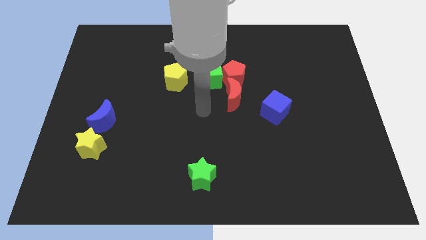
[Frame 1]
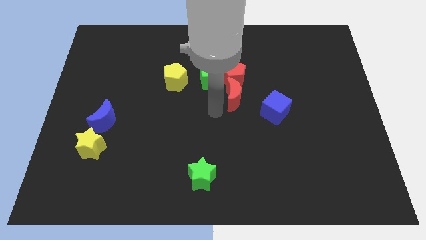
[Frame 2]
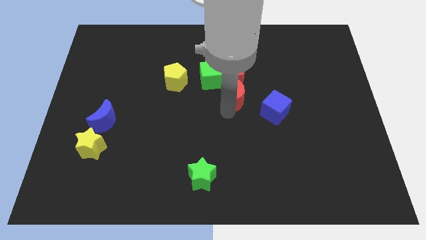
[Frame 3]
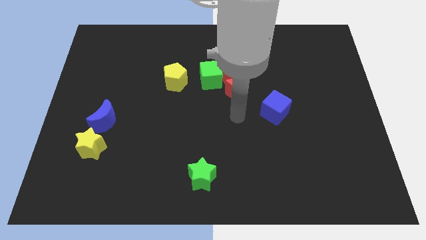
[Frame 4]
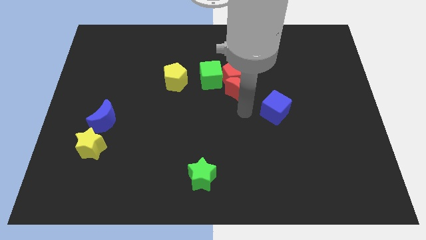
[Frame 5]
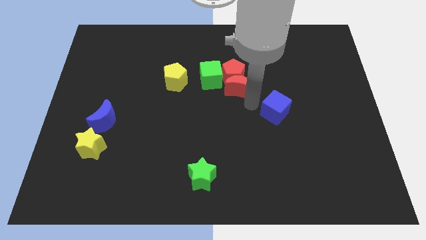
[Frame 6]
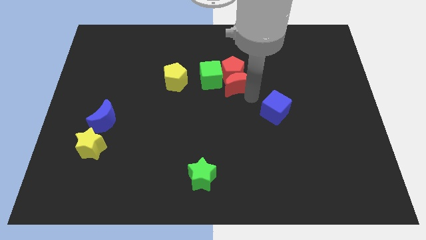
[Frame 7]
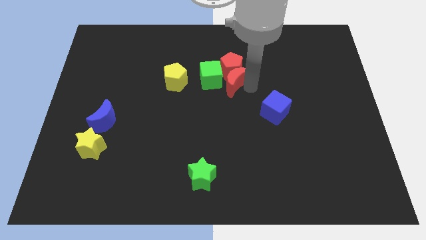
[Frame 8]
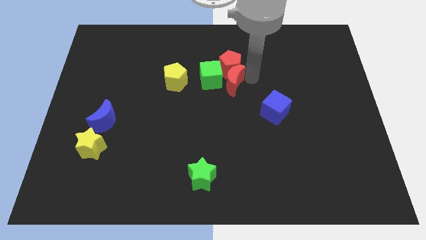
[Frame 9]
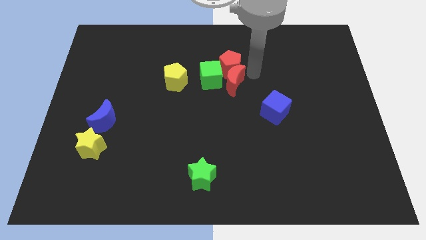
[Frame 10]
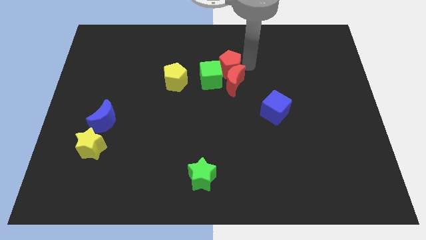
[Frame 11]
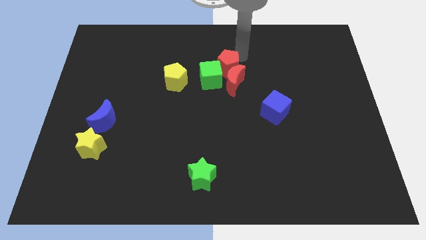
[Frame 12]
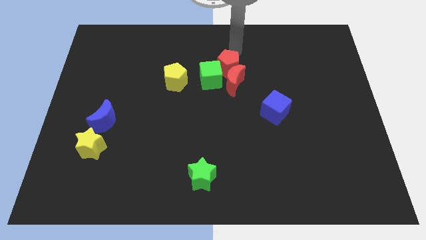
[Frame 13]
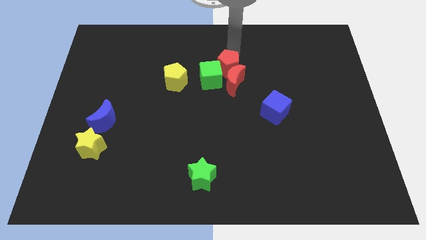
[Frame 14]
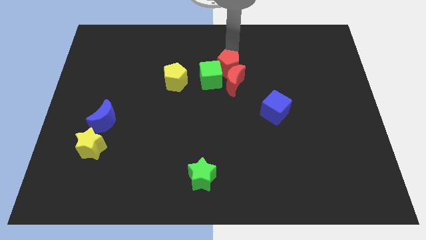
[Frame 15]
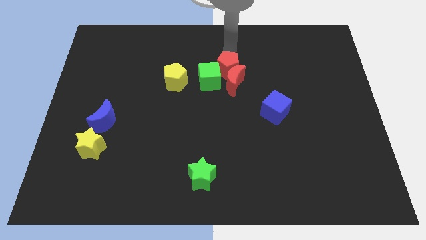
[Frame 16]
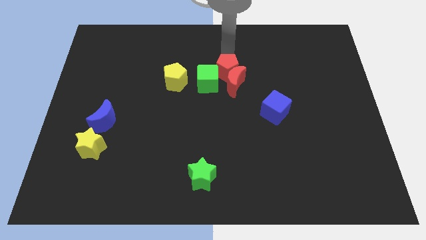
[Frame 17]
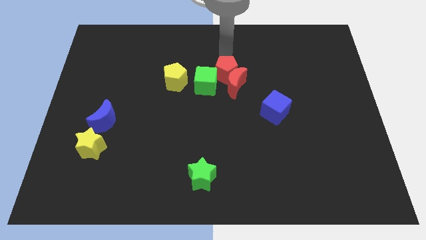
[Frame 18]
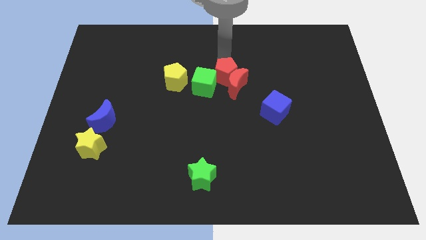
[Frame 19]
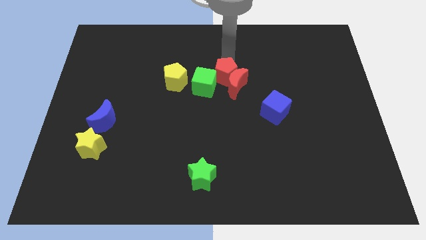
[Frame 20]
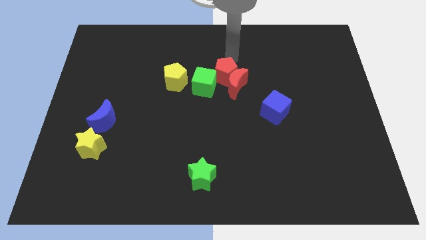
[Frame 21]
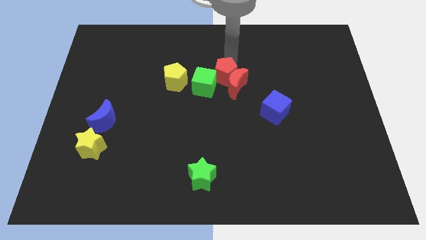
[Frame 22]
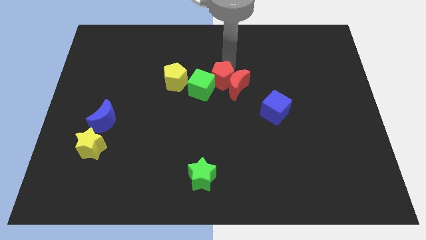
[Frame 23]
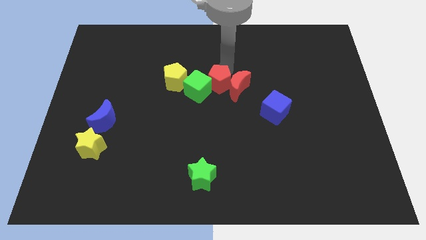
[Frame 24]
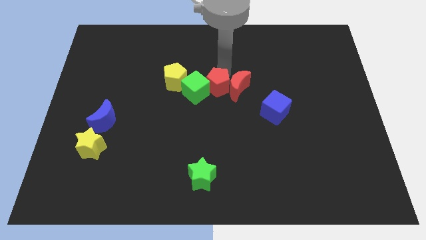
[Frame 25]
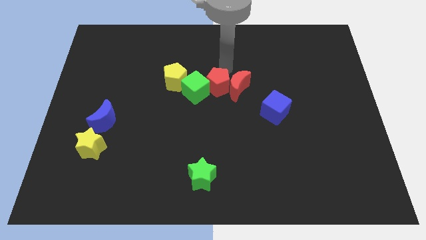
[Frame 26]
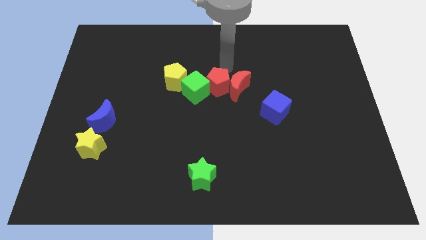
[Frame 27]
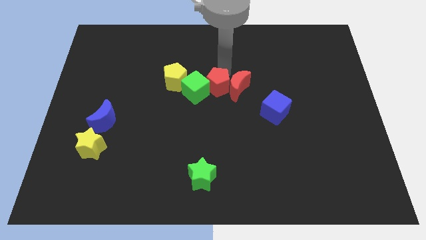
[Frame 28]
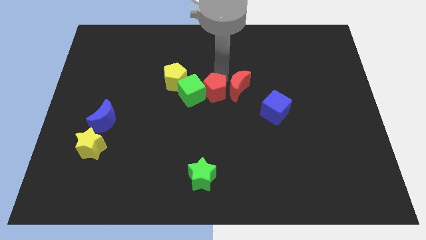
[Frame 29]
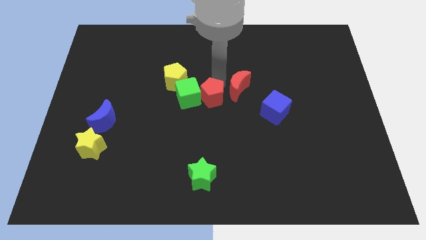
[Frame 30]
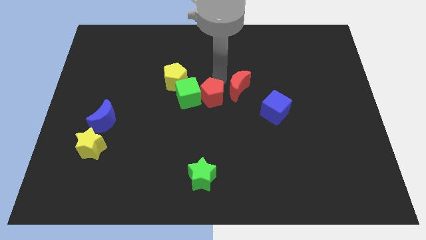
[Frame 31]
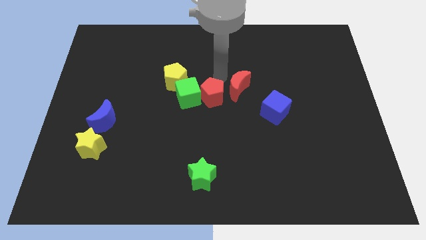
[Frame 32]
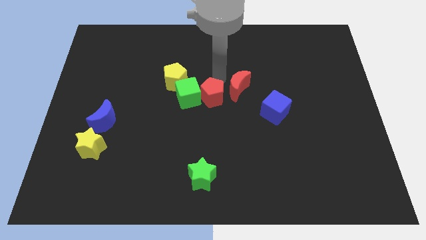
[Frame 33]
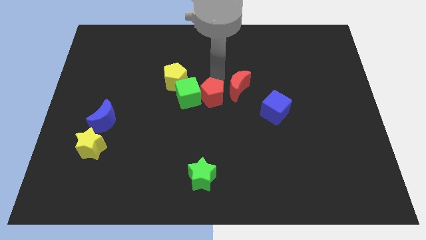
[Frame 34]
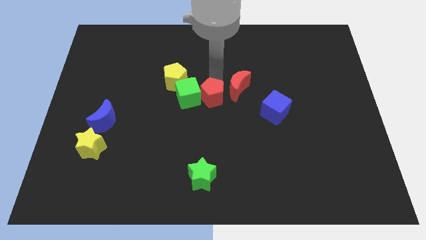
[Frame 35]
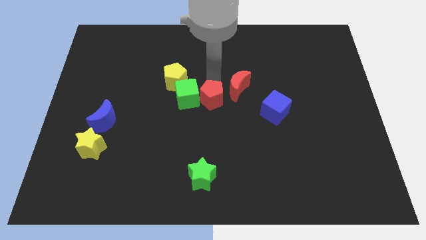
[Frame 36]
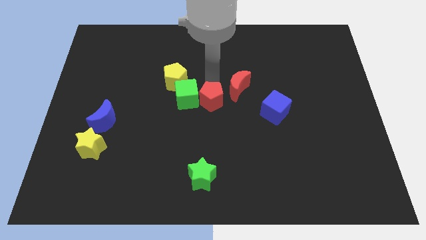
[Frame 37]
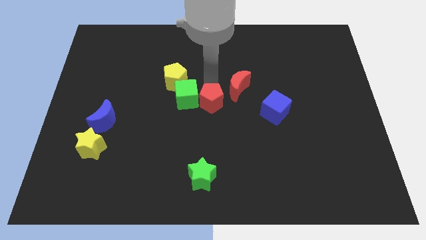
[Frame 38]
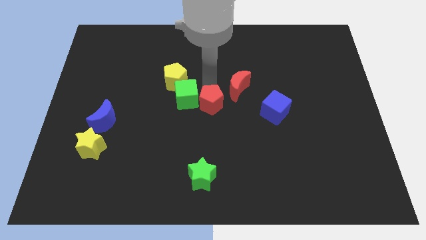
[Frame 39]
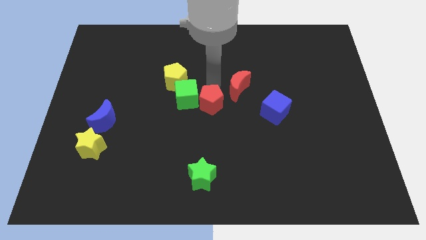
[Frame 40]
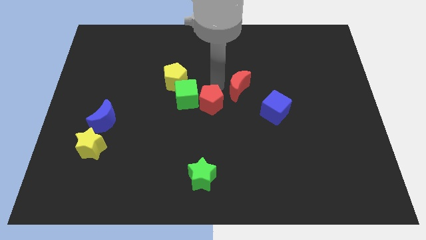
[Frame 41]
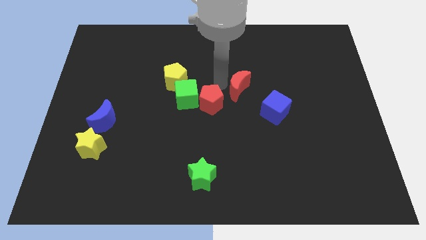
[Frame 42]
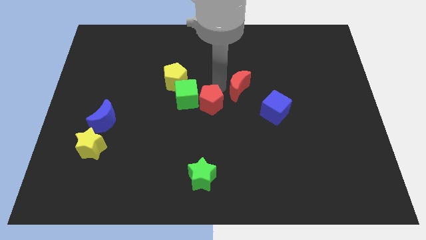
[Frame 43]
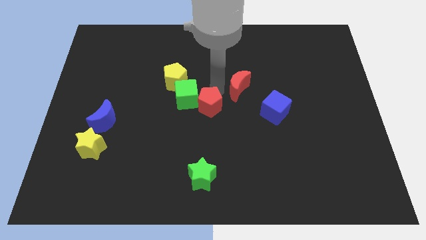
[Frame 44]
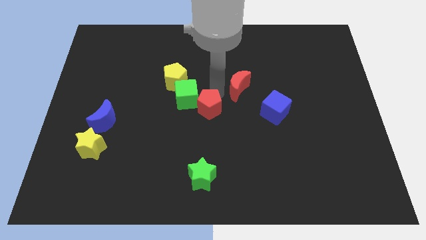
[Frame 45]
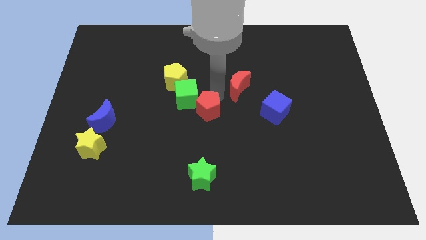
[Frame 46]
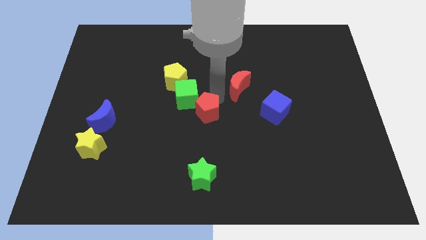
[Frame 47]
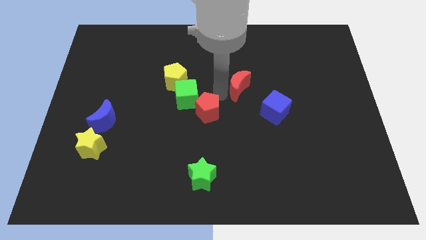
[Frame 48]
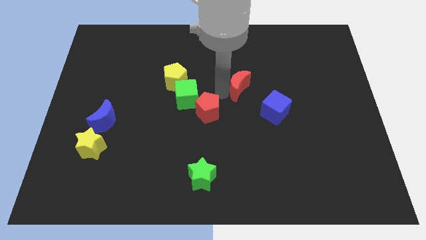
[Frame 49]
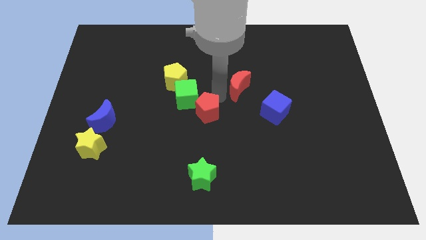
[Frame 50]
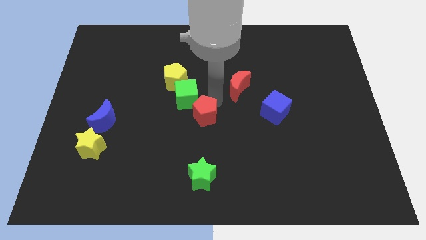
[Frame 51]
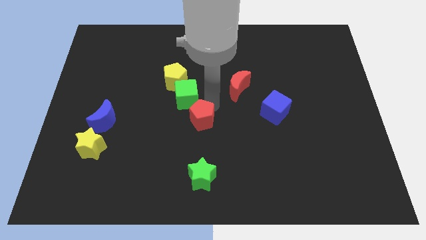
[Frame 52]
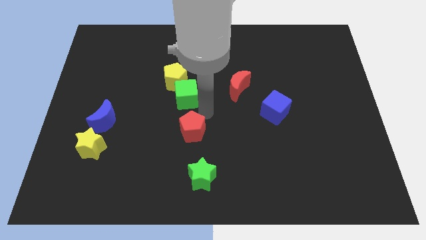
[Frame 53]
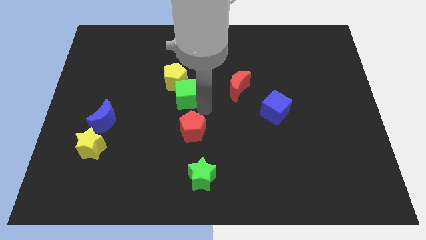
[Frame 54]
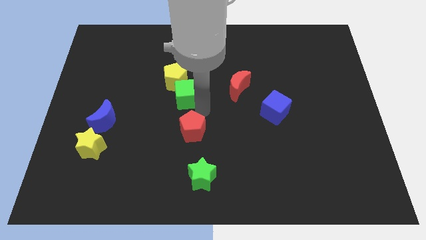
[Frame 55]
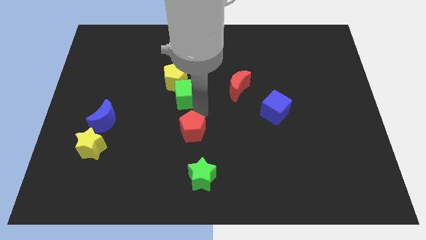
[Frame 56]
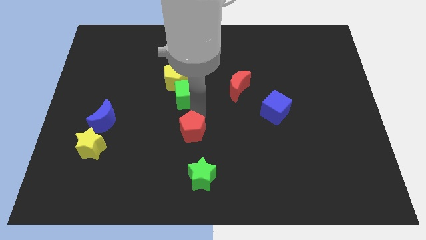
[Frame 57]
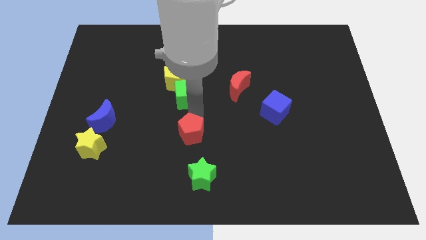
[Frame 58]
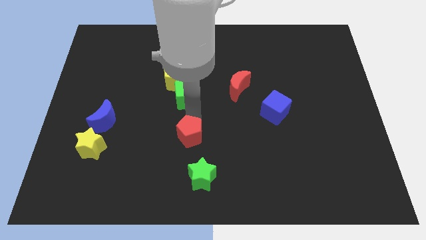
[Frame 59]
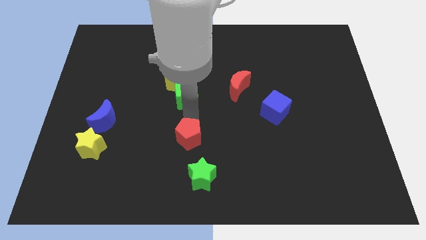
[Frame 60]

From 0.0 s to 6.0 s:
put the red pentagon diagonally up and to the left of the green star
